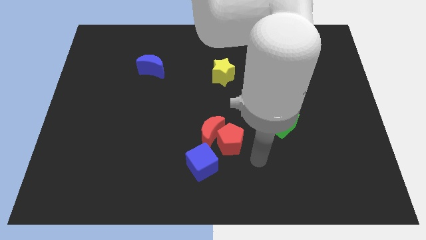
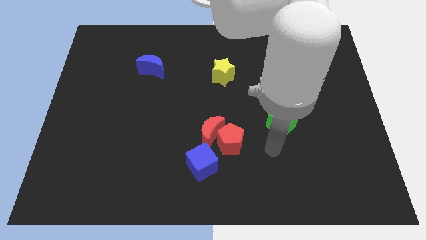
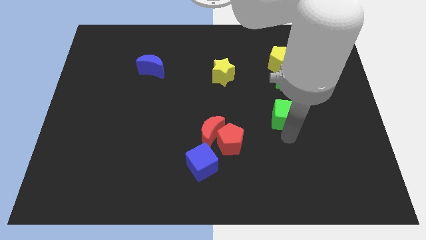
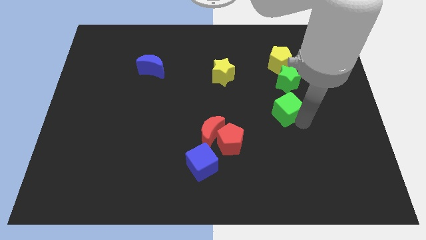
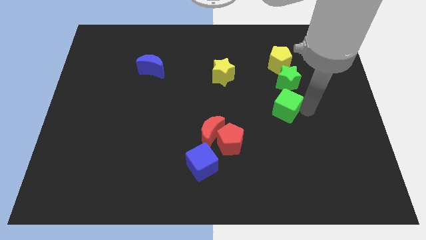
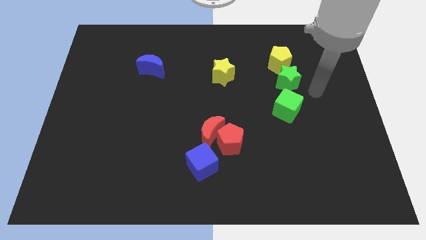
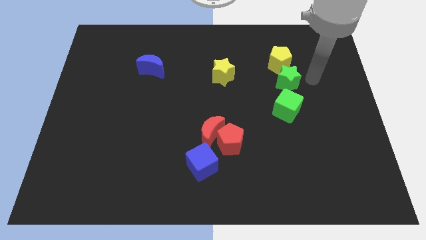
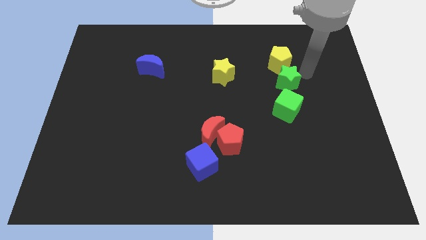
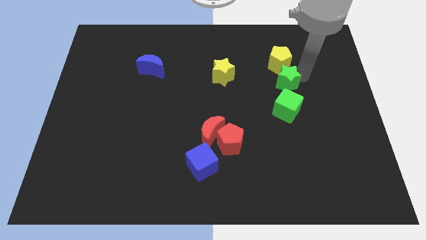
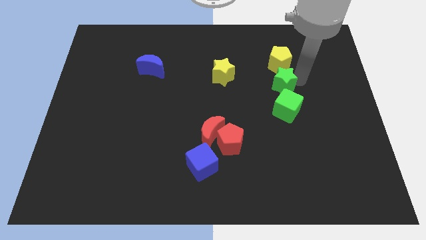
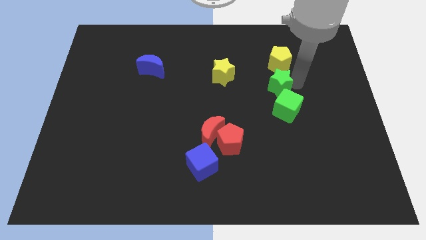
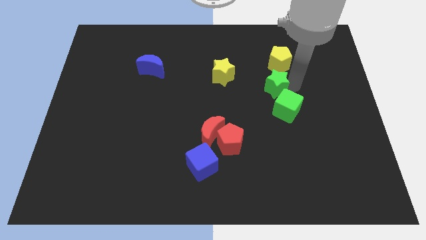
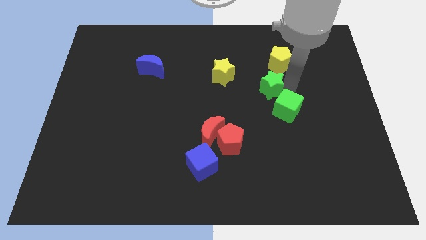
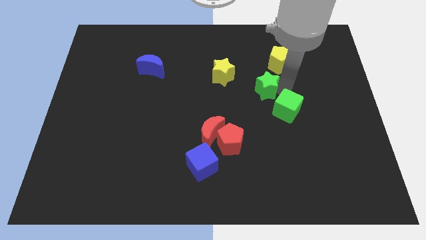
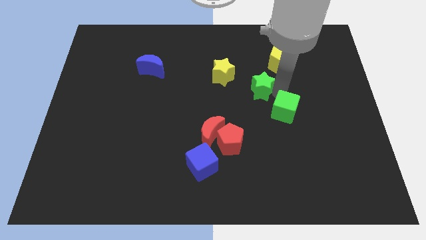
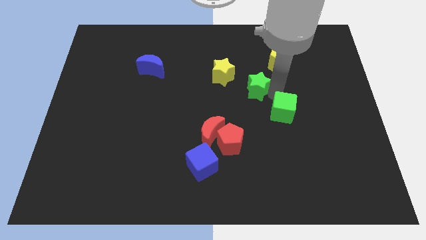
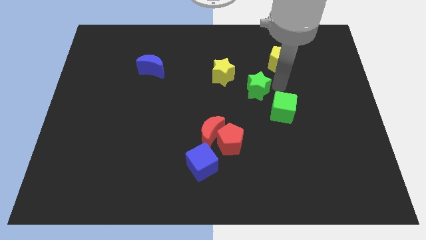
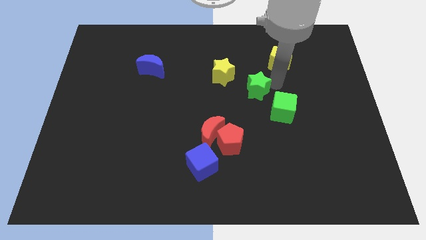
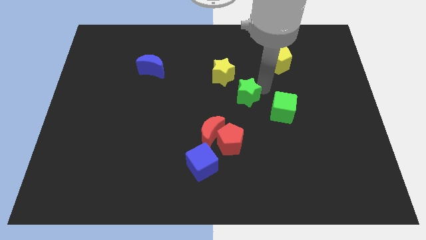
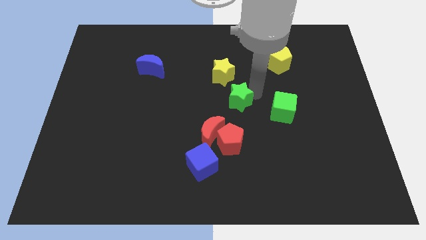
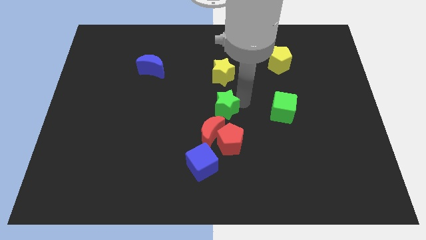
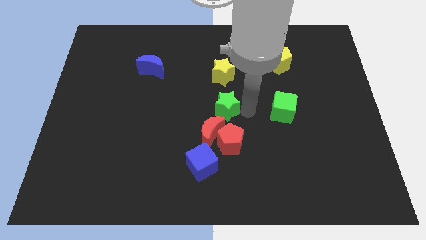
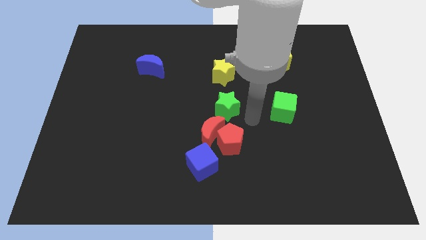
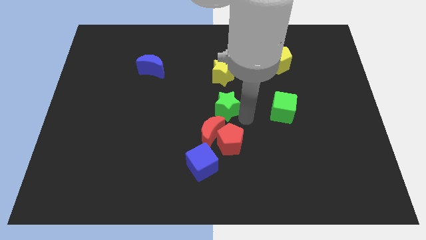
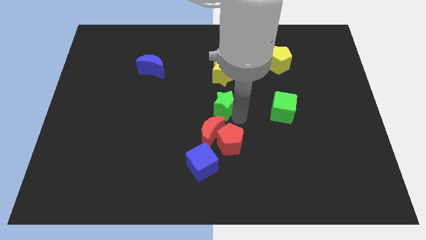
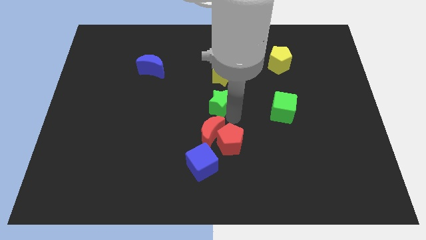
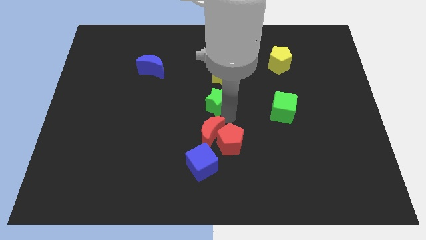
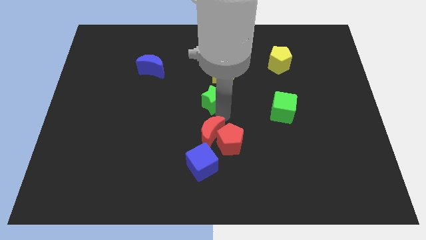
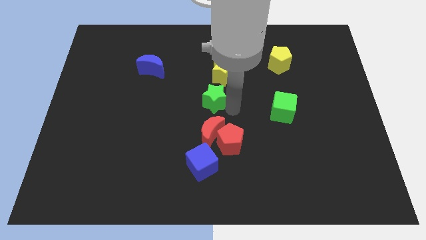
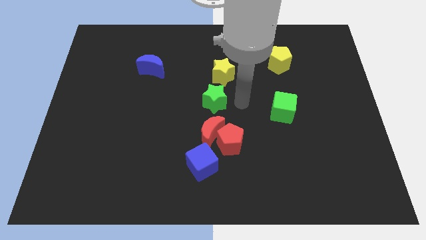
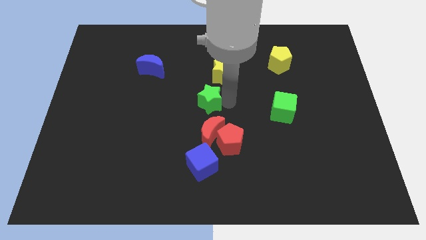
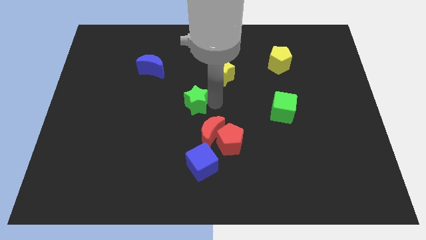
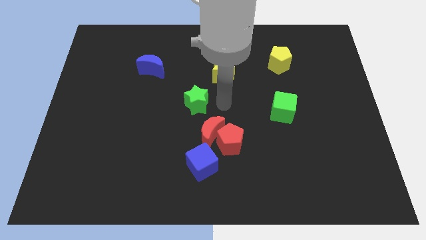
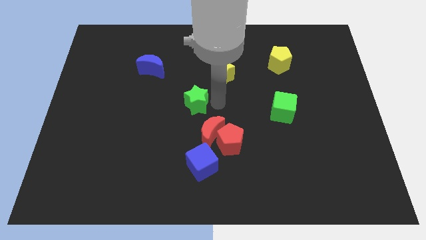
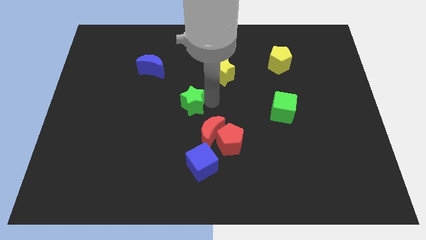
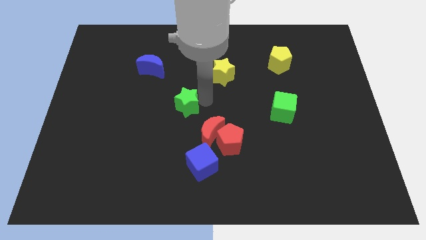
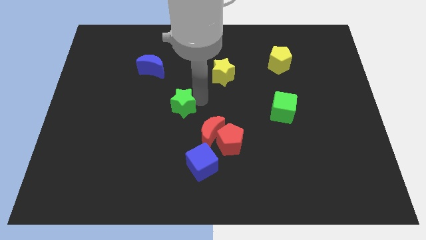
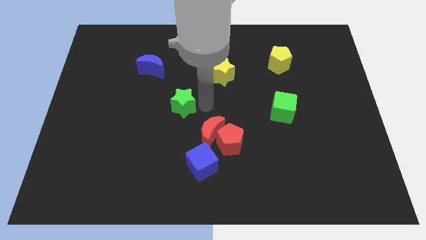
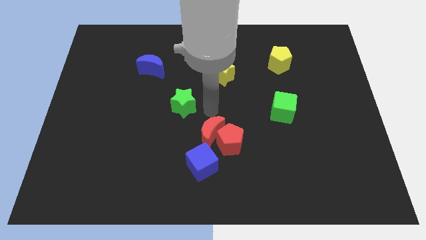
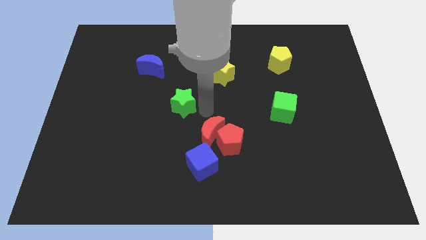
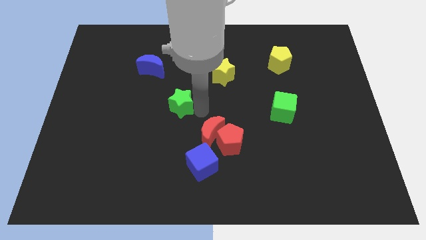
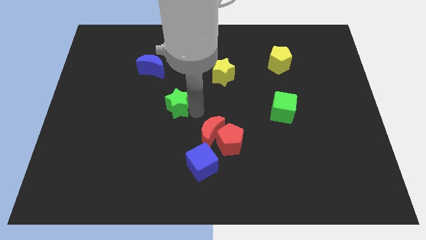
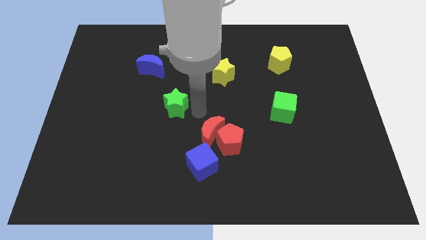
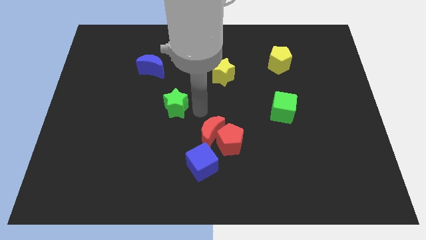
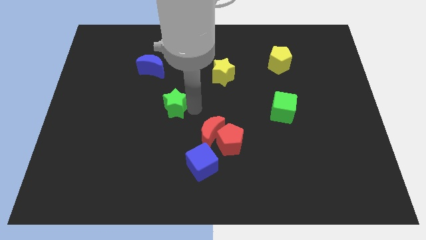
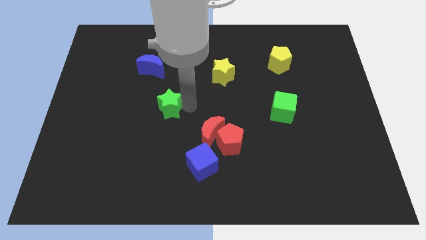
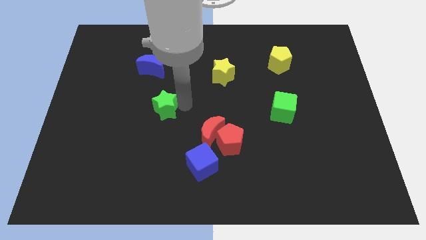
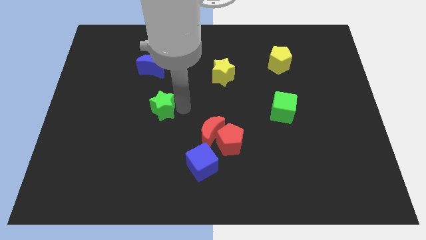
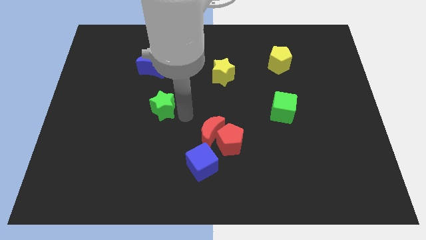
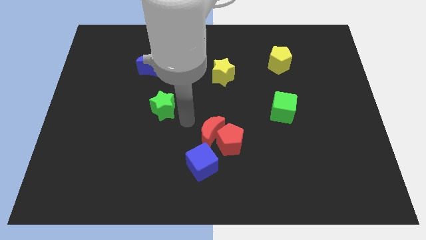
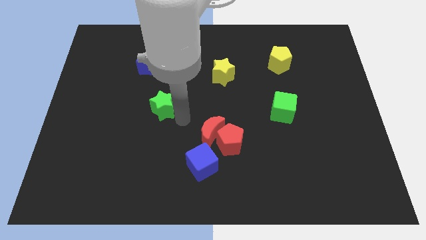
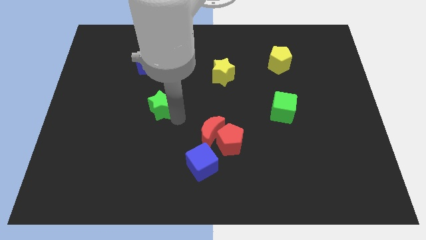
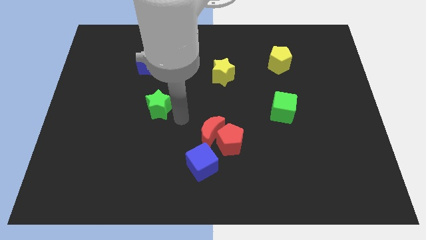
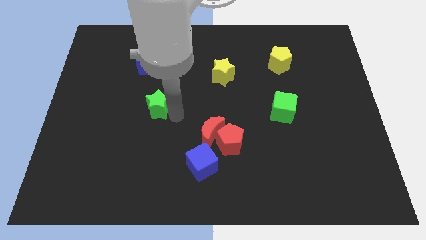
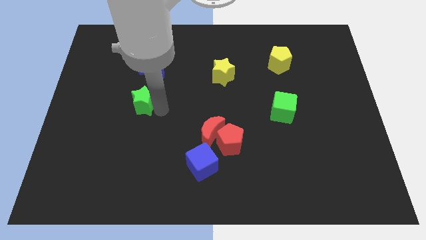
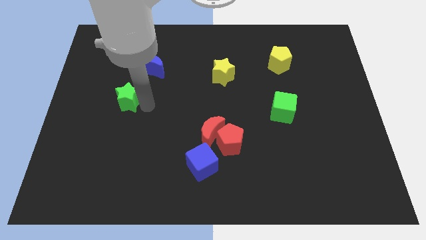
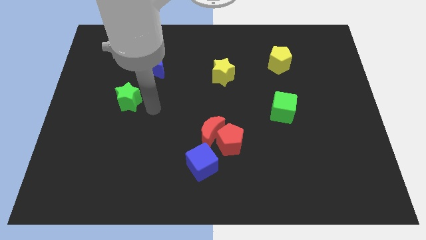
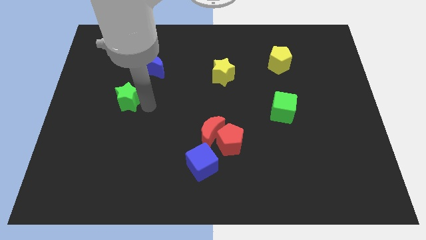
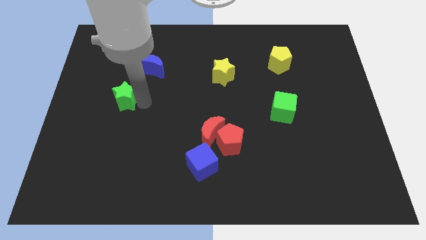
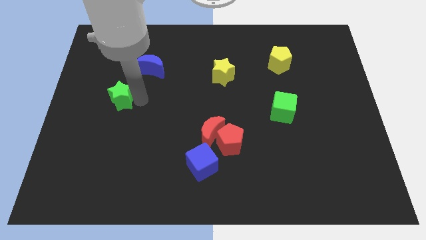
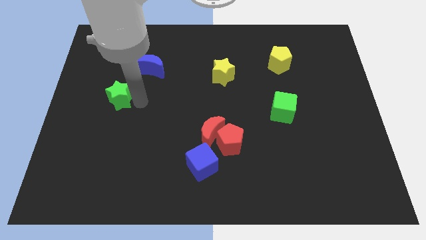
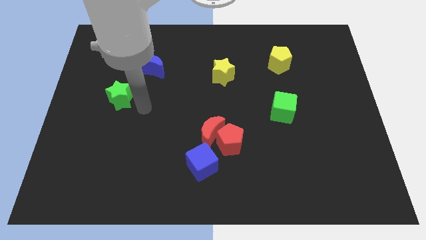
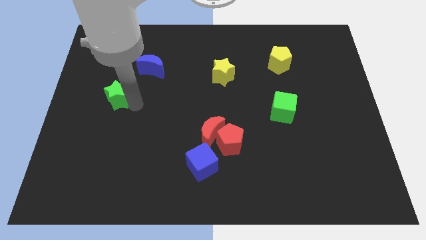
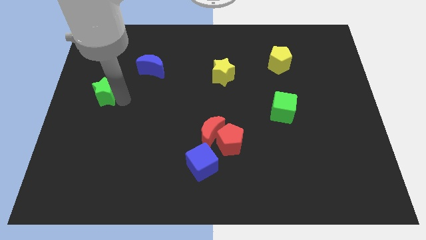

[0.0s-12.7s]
move the green star to the center left
